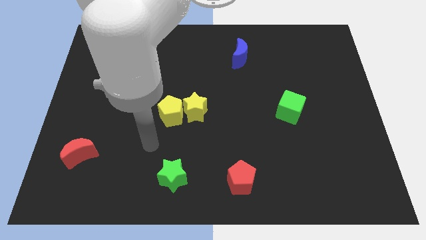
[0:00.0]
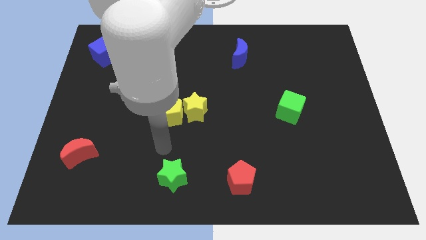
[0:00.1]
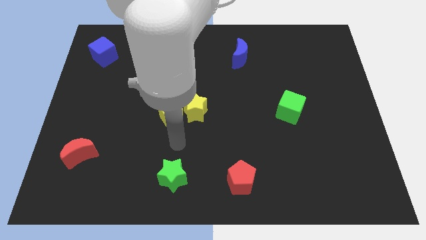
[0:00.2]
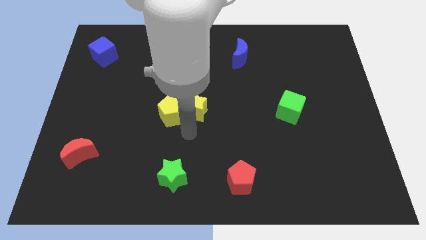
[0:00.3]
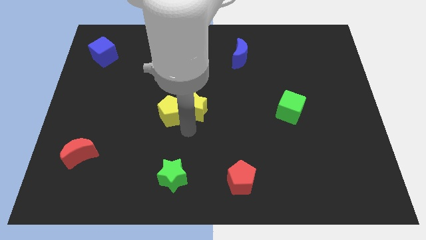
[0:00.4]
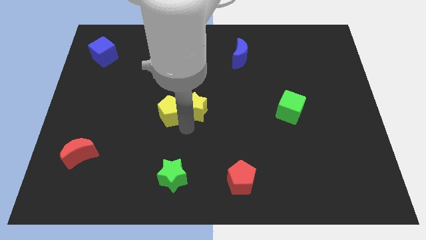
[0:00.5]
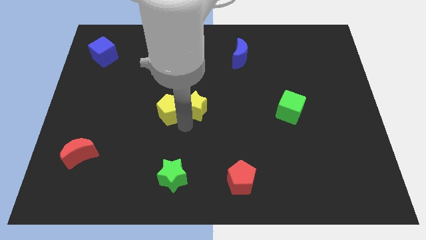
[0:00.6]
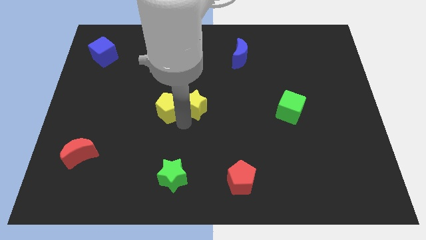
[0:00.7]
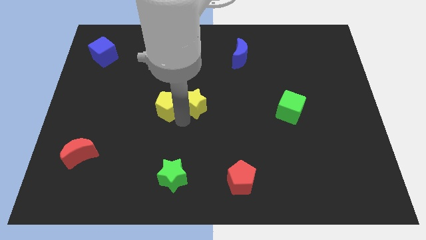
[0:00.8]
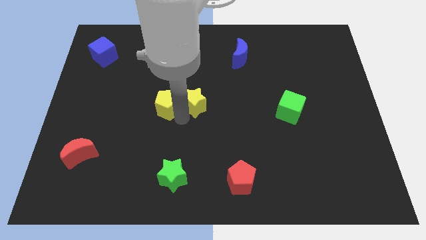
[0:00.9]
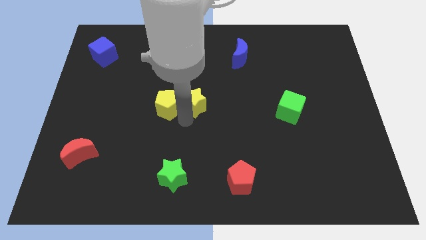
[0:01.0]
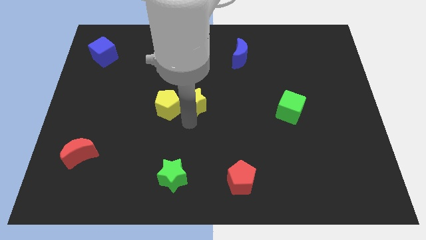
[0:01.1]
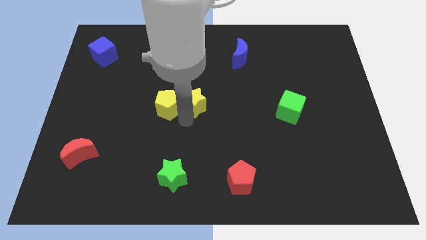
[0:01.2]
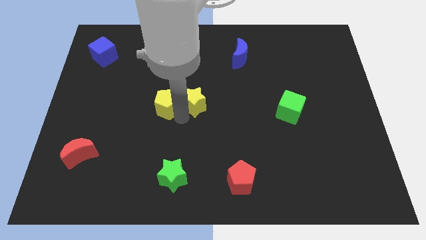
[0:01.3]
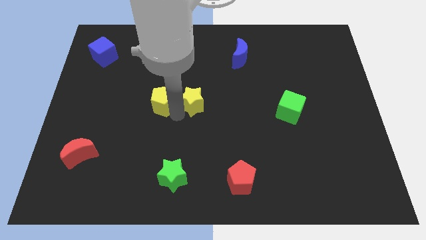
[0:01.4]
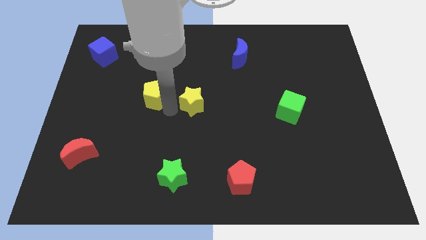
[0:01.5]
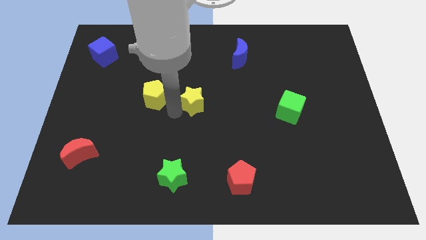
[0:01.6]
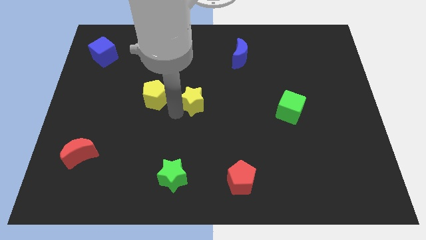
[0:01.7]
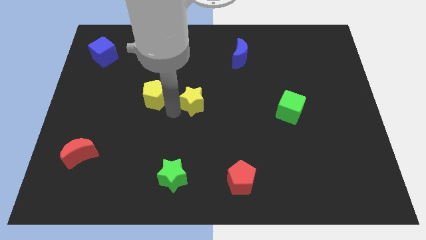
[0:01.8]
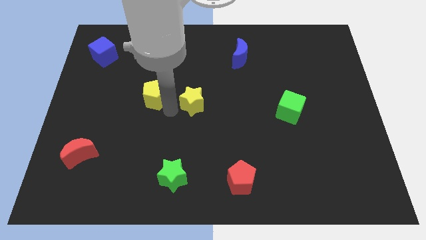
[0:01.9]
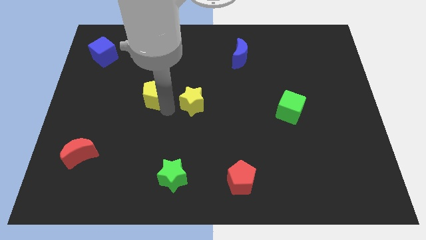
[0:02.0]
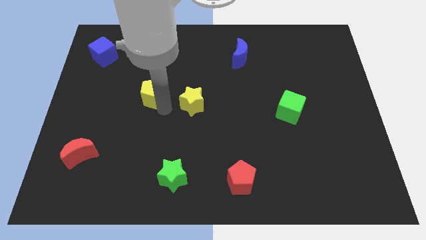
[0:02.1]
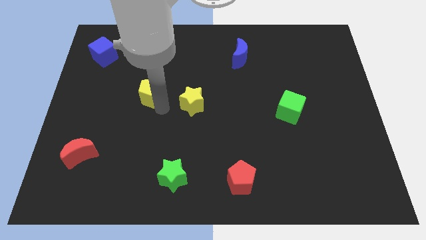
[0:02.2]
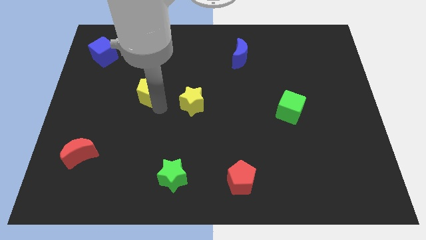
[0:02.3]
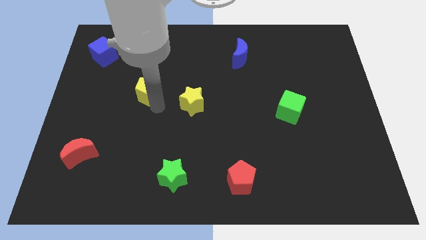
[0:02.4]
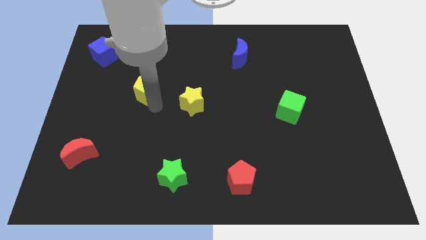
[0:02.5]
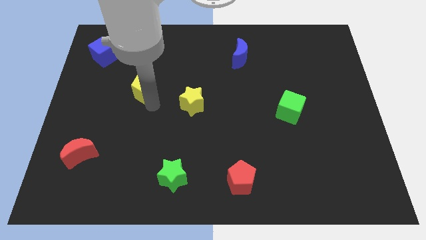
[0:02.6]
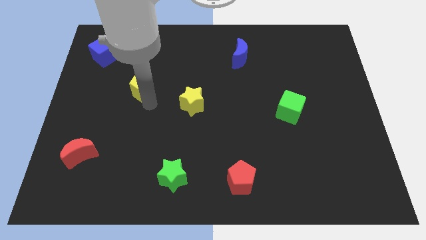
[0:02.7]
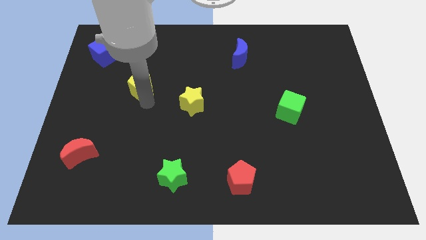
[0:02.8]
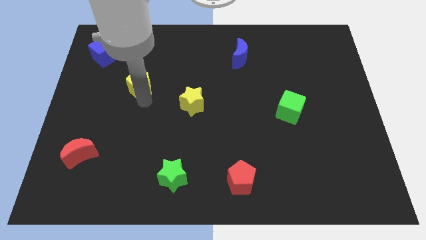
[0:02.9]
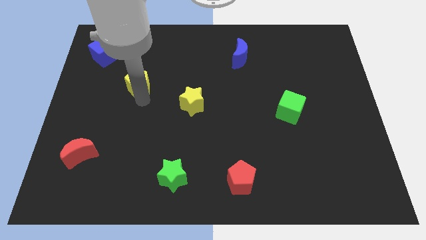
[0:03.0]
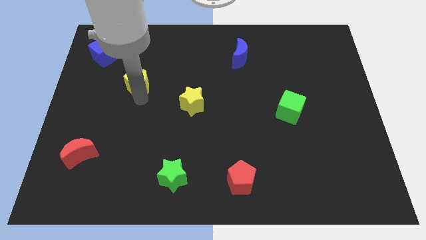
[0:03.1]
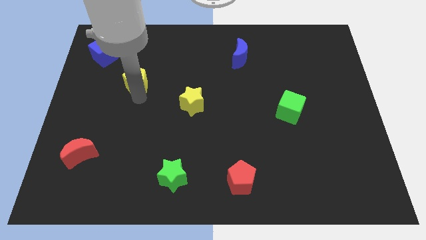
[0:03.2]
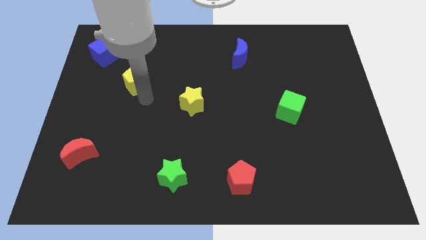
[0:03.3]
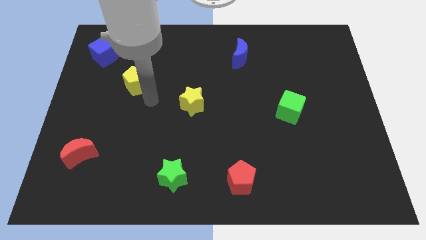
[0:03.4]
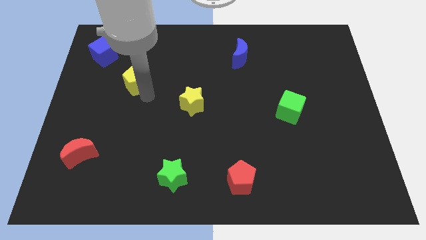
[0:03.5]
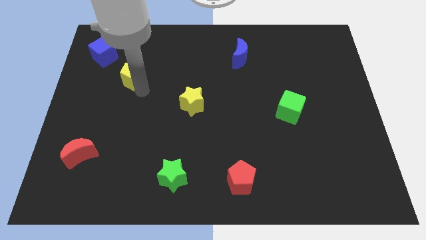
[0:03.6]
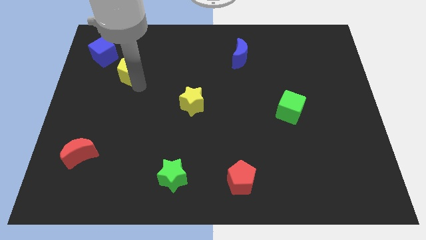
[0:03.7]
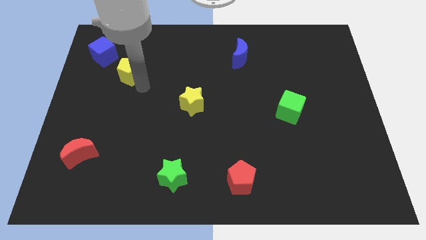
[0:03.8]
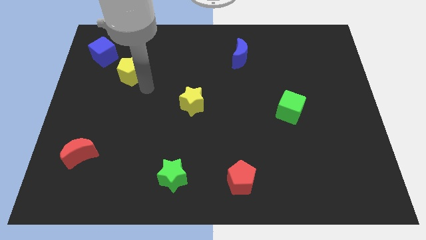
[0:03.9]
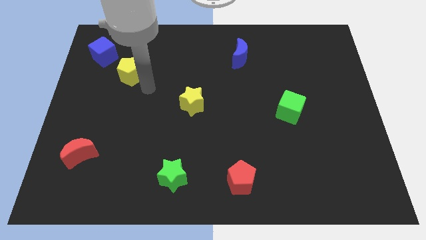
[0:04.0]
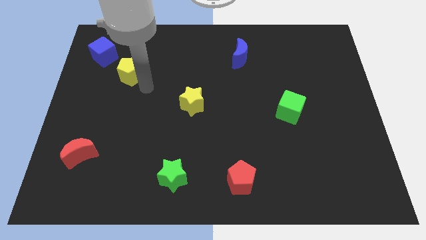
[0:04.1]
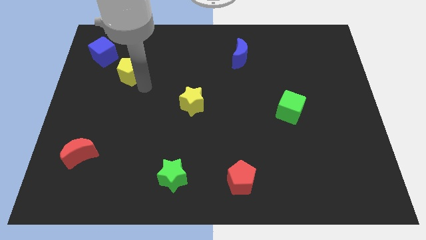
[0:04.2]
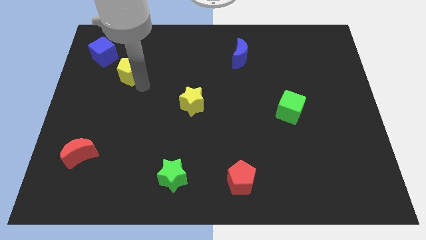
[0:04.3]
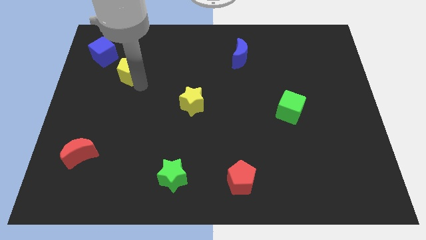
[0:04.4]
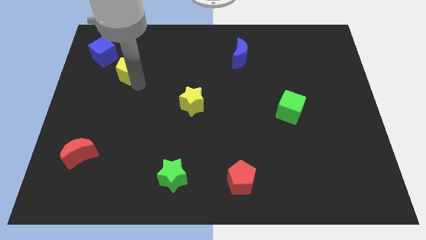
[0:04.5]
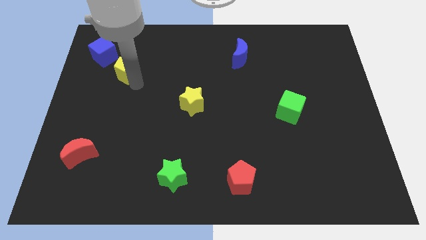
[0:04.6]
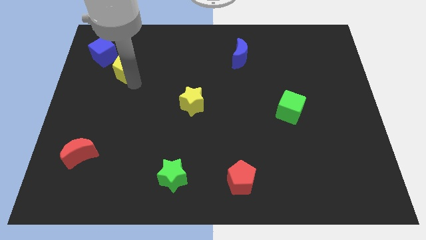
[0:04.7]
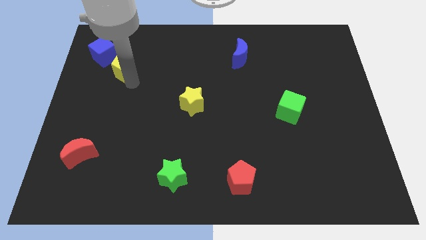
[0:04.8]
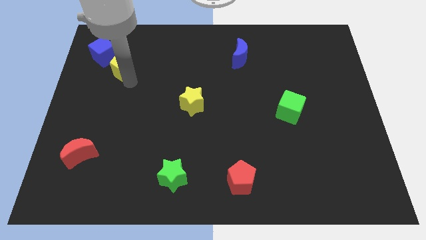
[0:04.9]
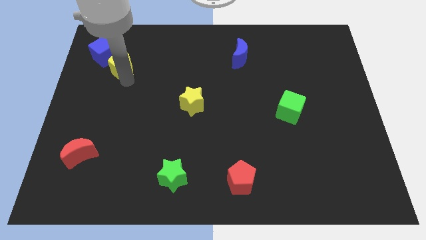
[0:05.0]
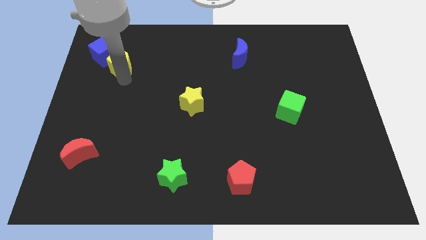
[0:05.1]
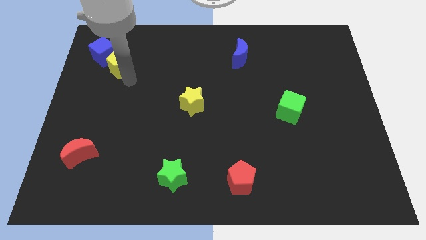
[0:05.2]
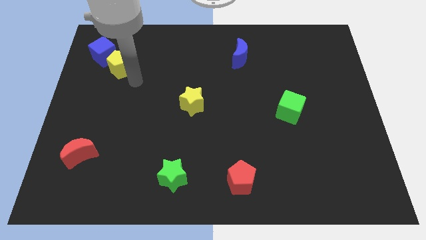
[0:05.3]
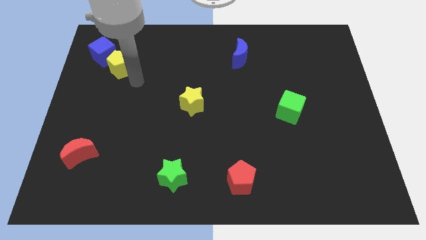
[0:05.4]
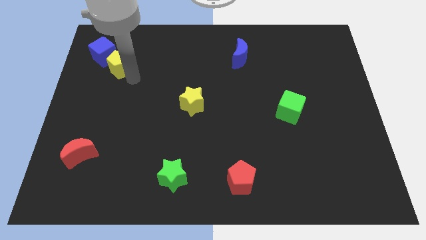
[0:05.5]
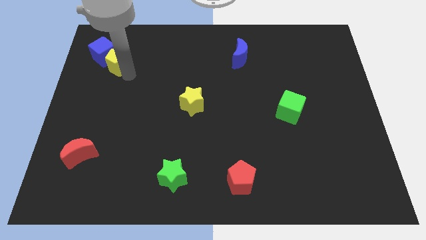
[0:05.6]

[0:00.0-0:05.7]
slide the yellow pentagon towards the blue cube

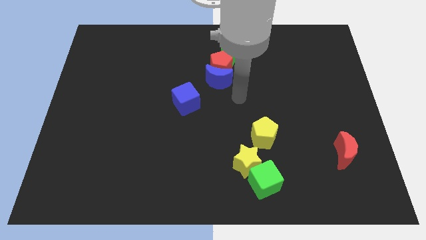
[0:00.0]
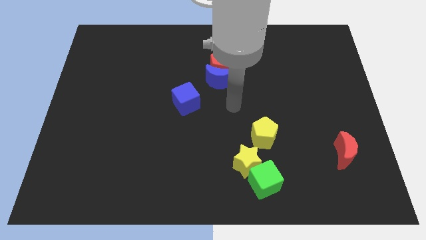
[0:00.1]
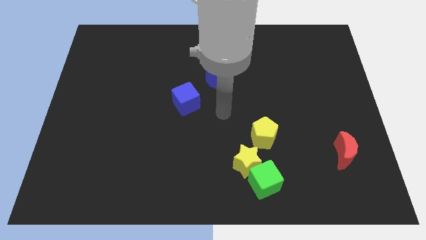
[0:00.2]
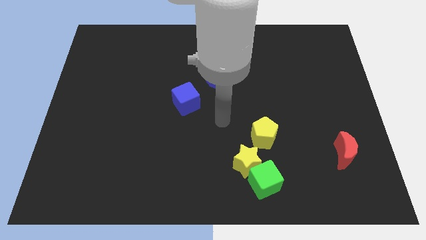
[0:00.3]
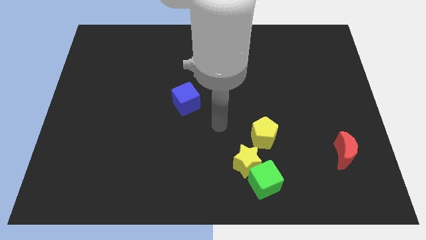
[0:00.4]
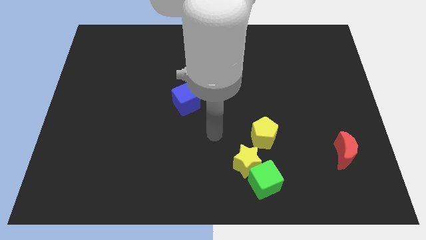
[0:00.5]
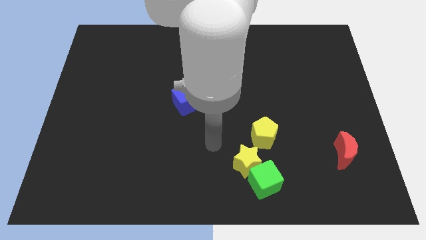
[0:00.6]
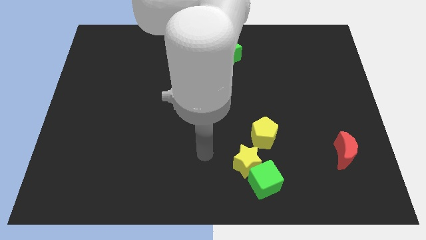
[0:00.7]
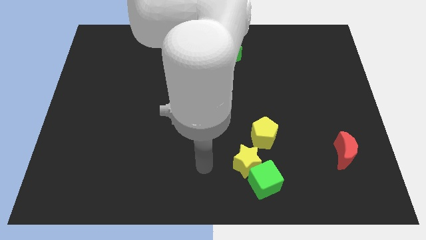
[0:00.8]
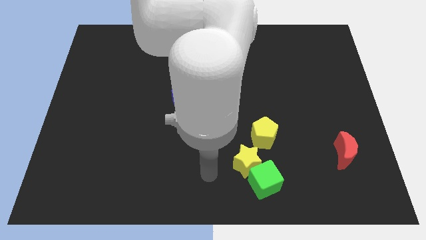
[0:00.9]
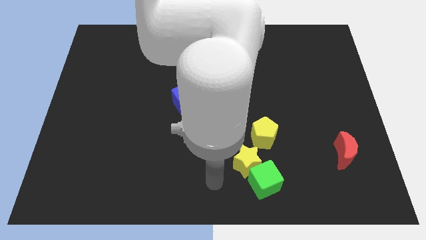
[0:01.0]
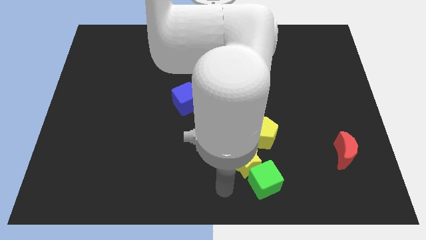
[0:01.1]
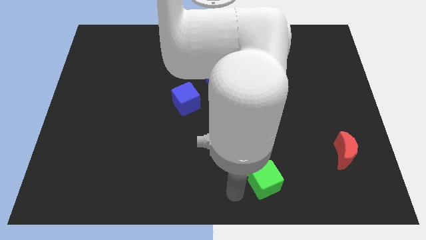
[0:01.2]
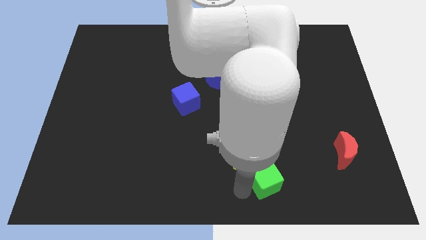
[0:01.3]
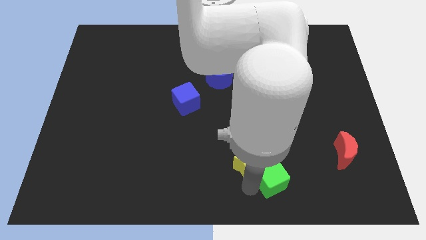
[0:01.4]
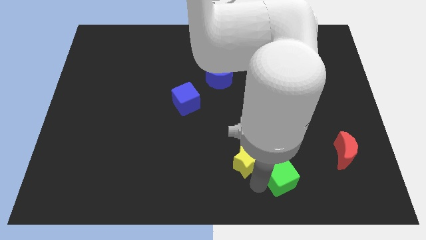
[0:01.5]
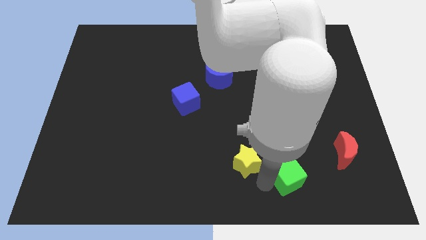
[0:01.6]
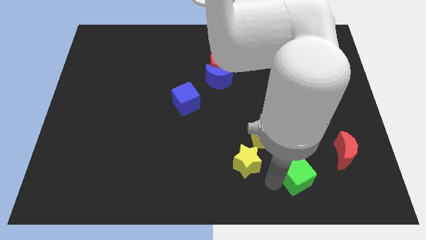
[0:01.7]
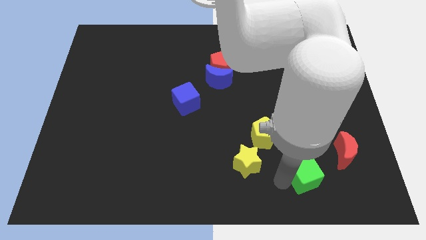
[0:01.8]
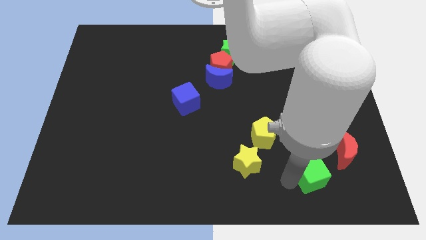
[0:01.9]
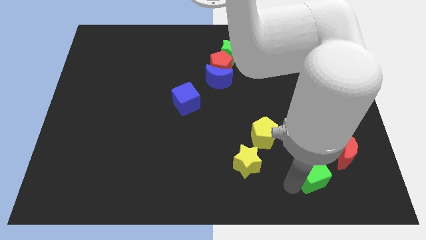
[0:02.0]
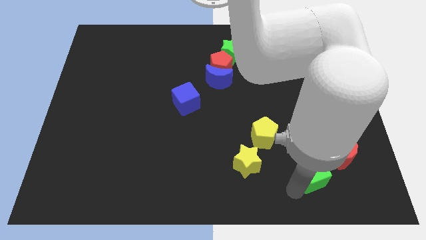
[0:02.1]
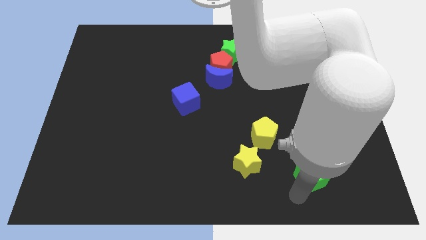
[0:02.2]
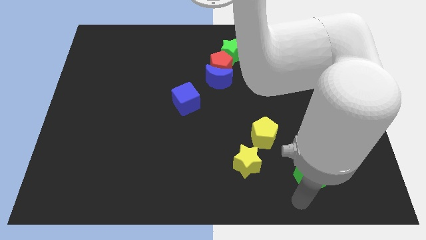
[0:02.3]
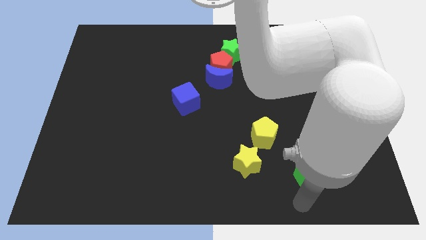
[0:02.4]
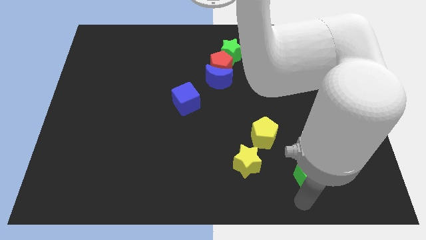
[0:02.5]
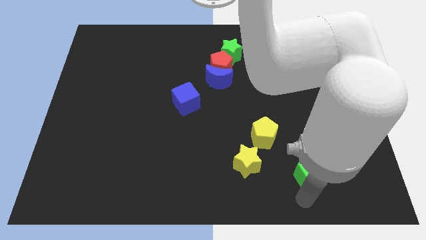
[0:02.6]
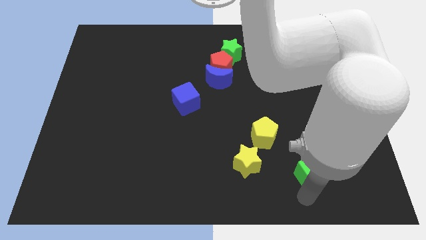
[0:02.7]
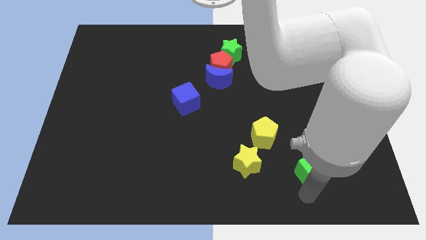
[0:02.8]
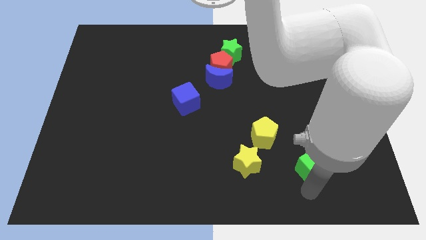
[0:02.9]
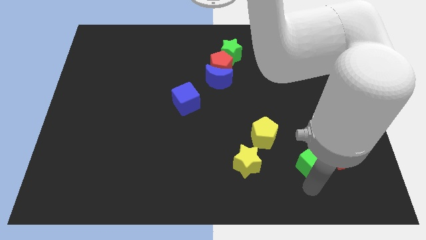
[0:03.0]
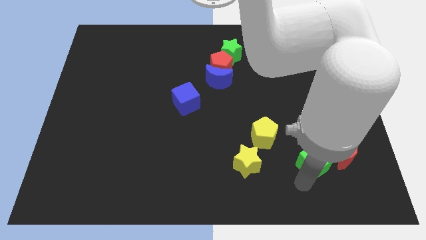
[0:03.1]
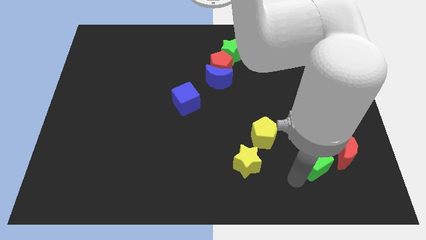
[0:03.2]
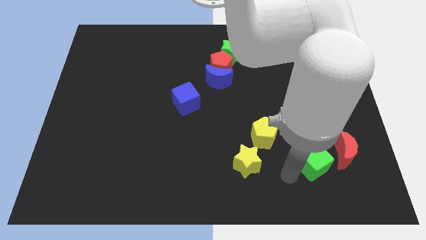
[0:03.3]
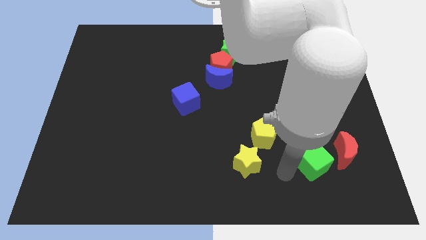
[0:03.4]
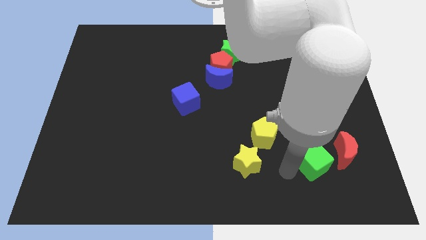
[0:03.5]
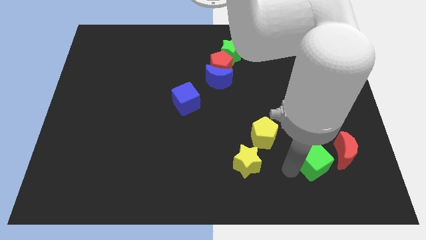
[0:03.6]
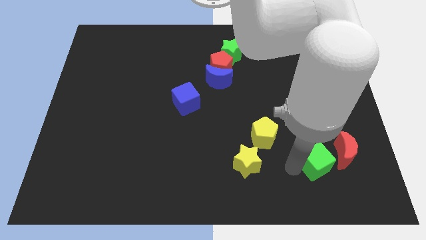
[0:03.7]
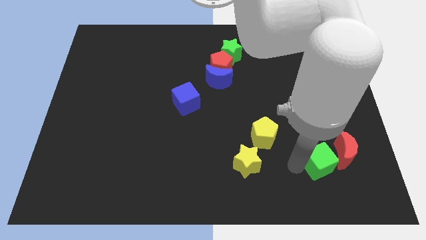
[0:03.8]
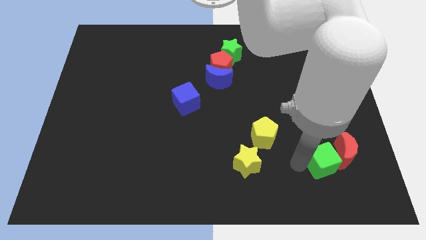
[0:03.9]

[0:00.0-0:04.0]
put the green cube towards the red moon
